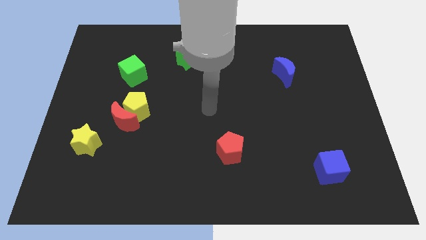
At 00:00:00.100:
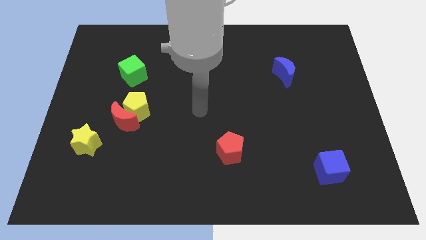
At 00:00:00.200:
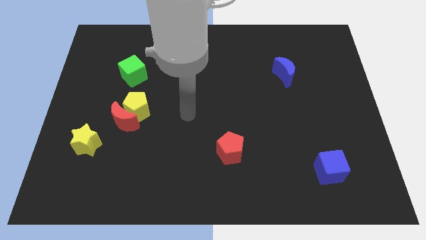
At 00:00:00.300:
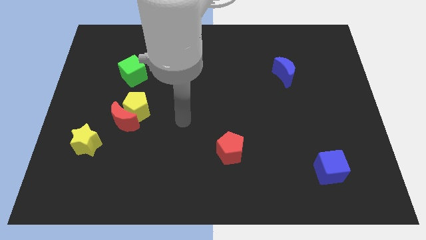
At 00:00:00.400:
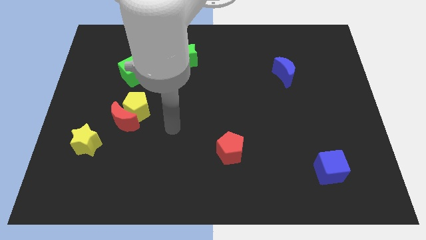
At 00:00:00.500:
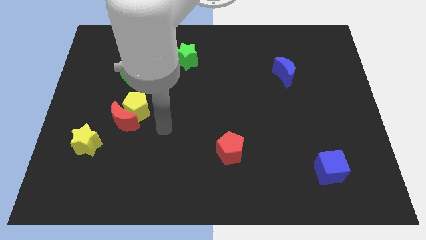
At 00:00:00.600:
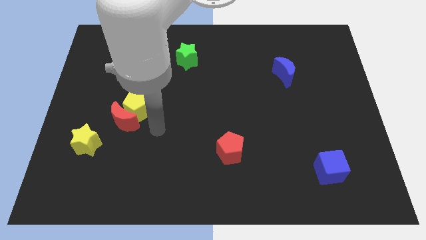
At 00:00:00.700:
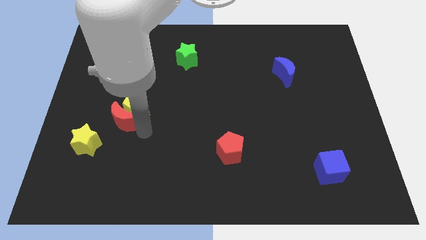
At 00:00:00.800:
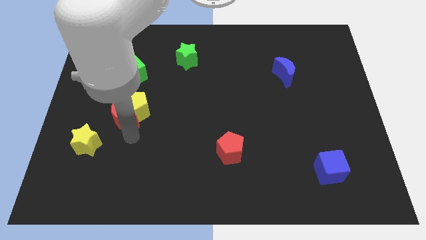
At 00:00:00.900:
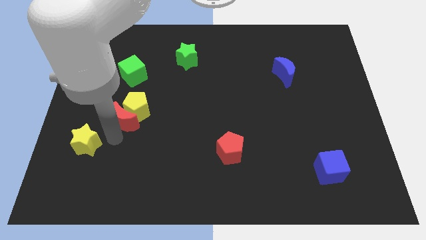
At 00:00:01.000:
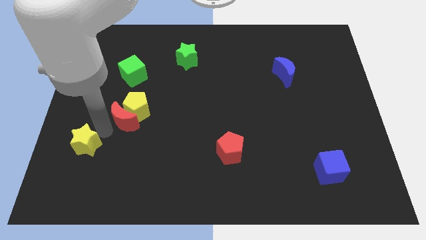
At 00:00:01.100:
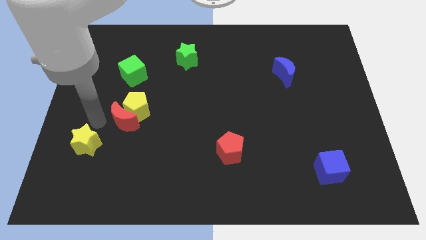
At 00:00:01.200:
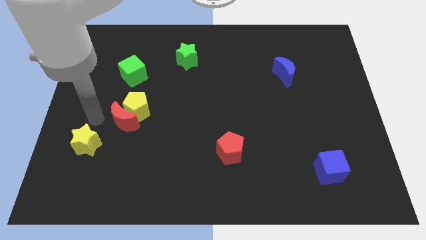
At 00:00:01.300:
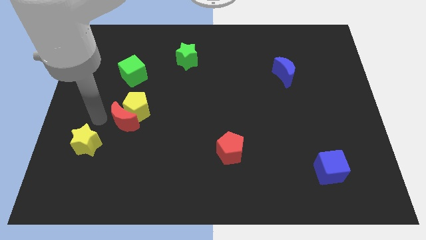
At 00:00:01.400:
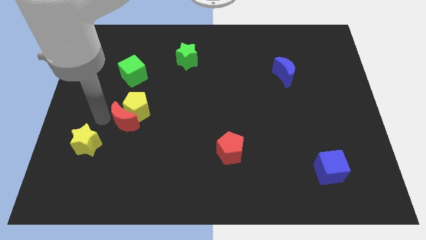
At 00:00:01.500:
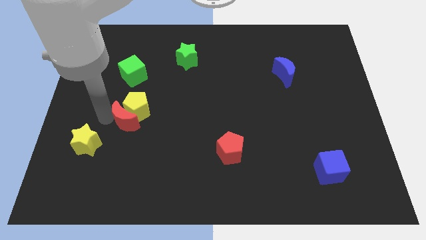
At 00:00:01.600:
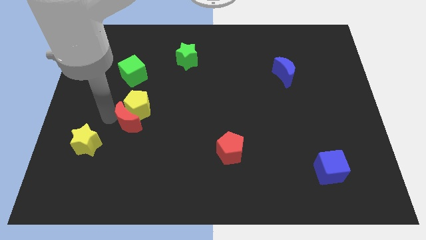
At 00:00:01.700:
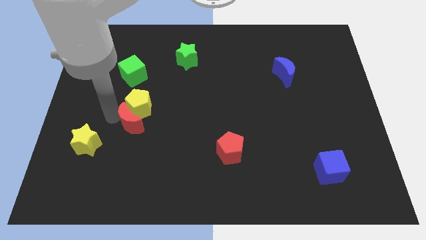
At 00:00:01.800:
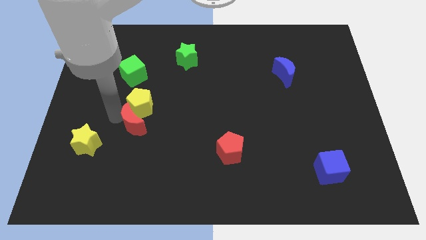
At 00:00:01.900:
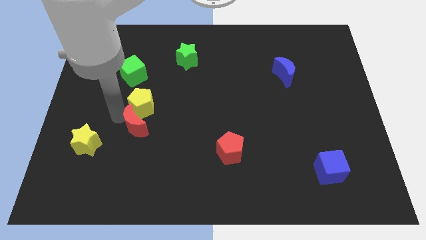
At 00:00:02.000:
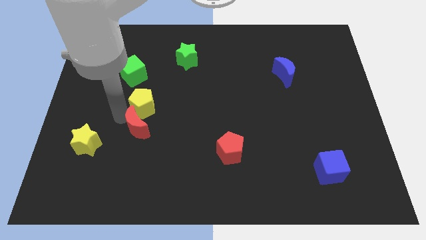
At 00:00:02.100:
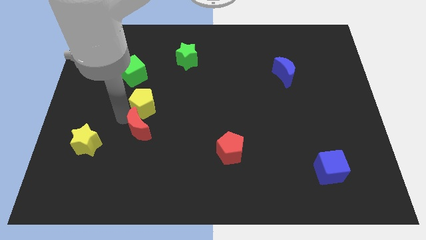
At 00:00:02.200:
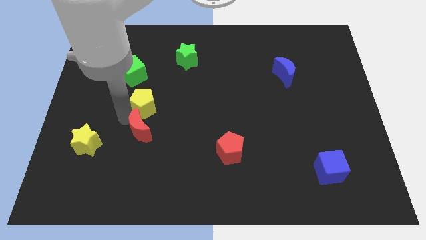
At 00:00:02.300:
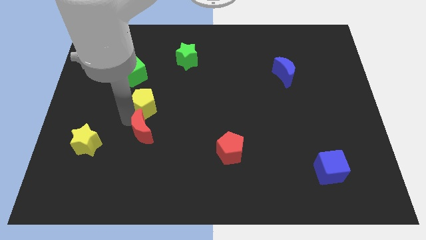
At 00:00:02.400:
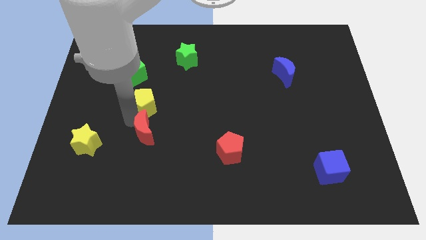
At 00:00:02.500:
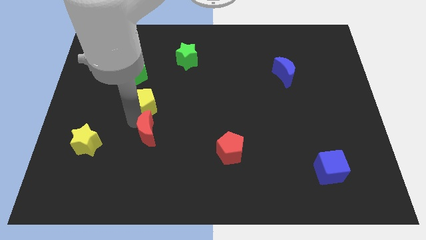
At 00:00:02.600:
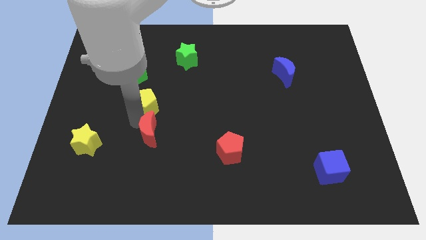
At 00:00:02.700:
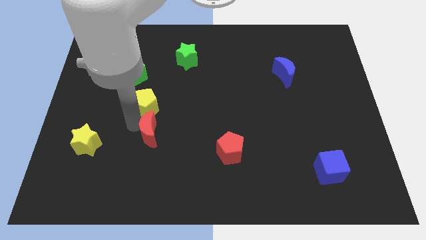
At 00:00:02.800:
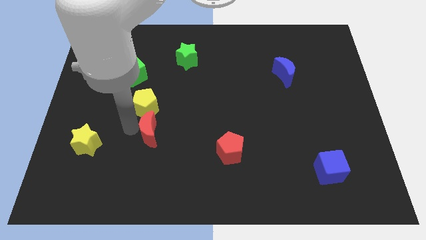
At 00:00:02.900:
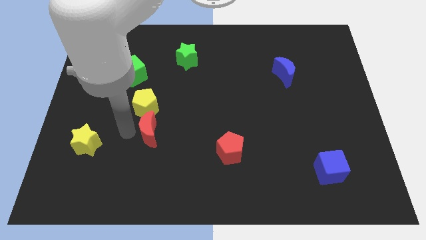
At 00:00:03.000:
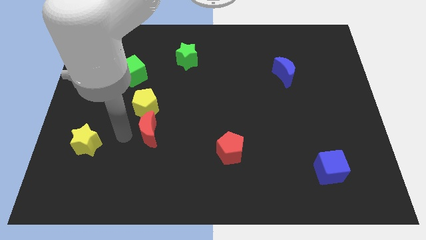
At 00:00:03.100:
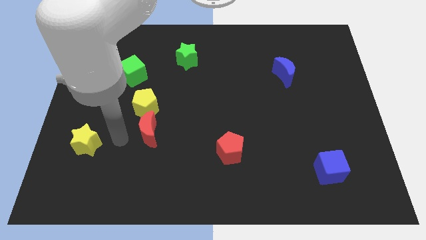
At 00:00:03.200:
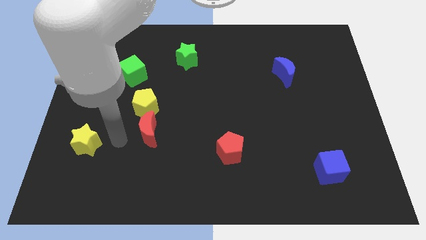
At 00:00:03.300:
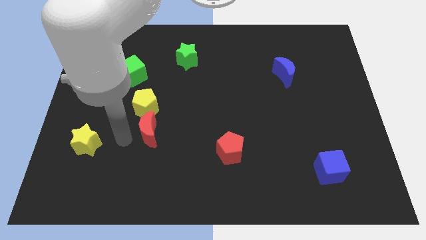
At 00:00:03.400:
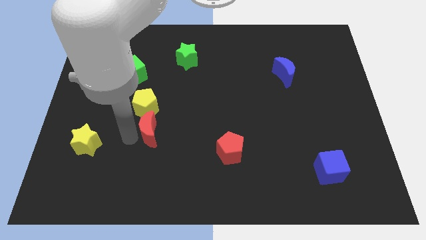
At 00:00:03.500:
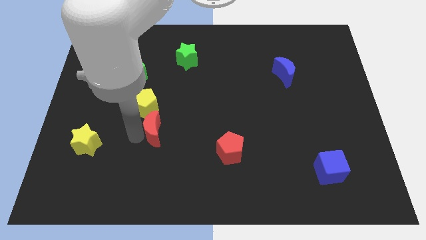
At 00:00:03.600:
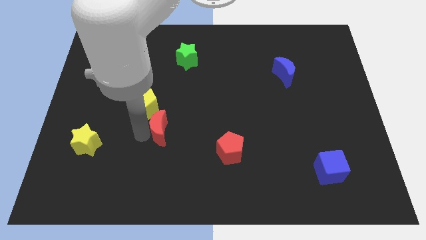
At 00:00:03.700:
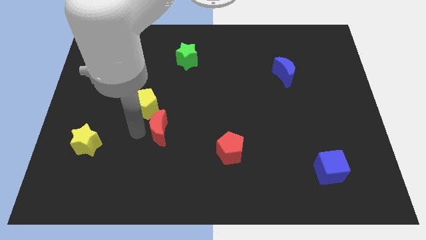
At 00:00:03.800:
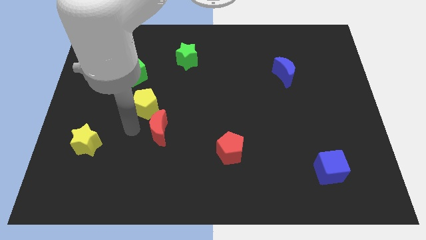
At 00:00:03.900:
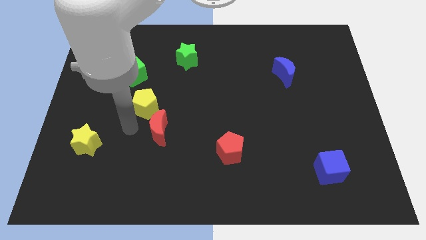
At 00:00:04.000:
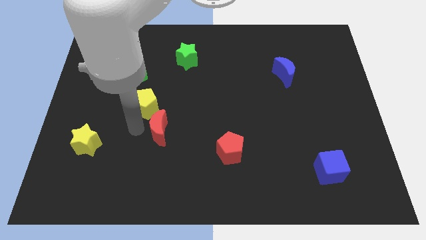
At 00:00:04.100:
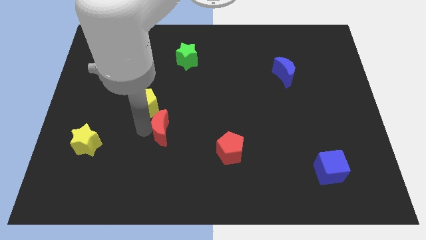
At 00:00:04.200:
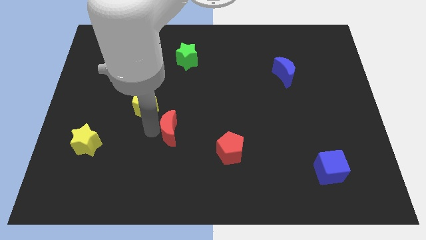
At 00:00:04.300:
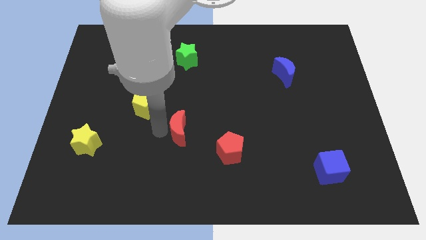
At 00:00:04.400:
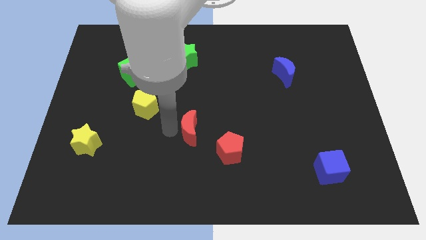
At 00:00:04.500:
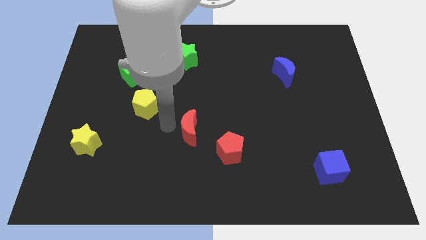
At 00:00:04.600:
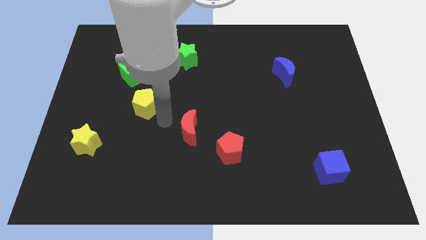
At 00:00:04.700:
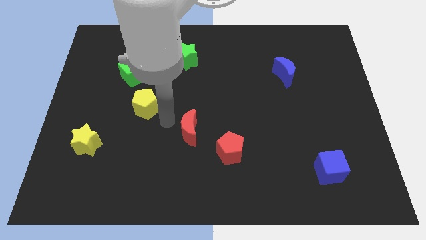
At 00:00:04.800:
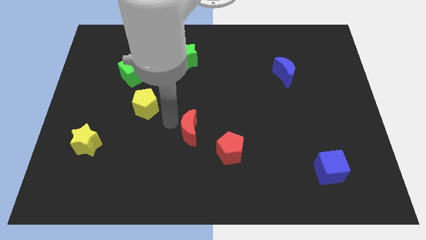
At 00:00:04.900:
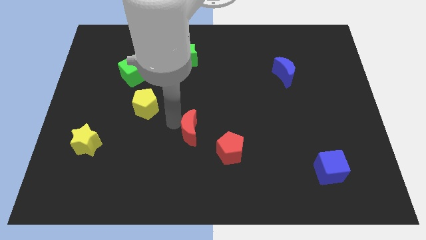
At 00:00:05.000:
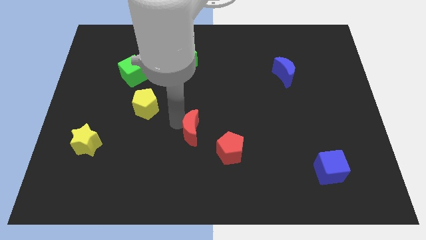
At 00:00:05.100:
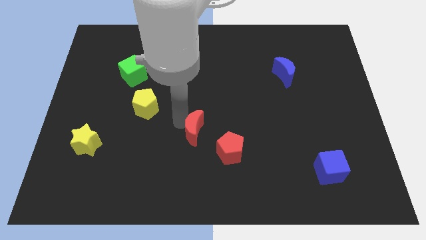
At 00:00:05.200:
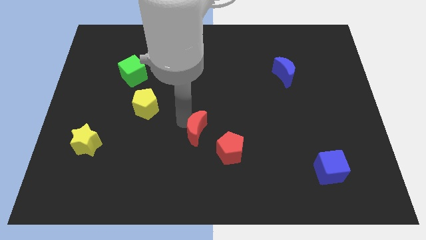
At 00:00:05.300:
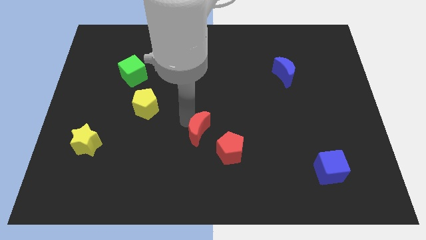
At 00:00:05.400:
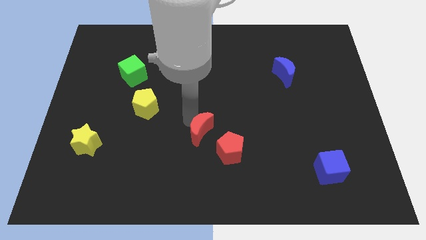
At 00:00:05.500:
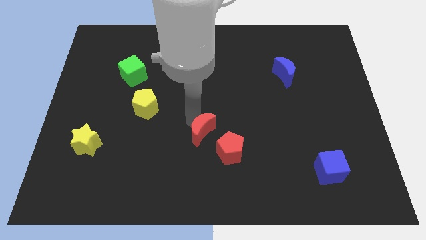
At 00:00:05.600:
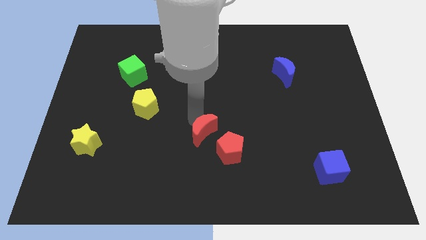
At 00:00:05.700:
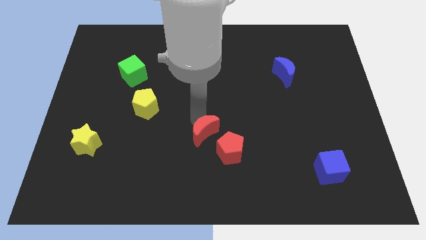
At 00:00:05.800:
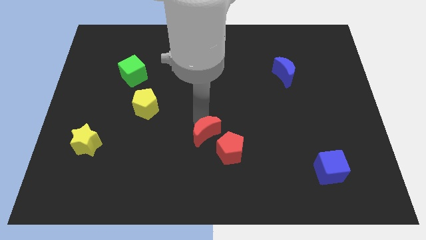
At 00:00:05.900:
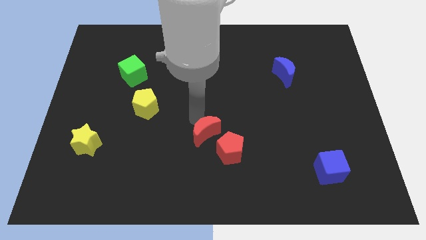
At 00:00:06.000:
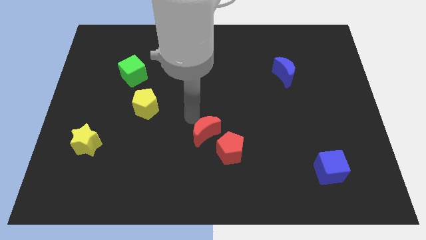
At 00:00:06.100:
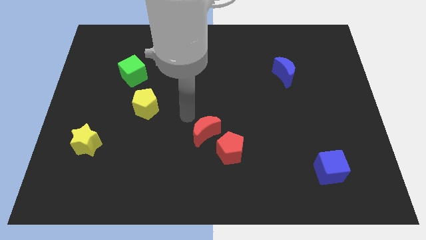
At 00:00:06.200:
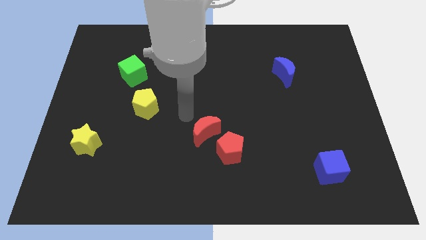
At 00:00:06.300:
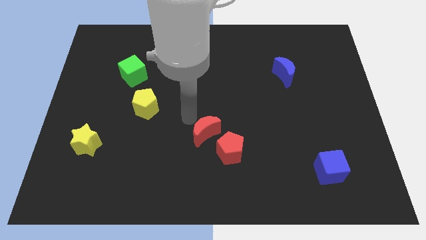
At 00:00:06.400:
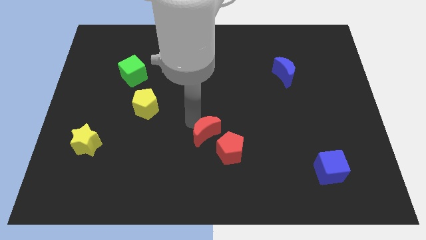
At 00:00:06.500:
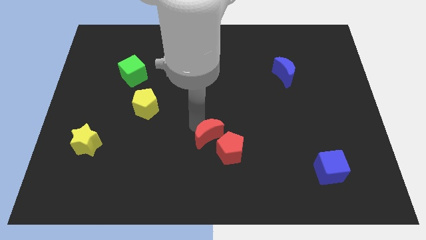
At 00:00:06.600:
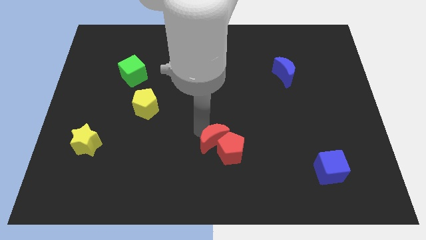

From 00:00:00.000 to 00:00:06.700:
slide the red moon to the red pentagon

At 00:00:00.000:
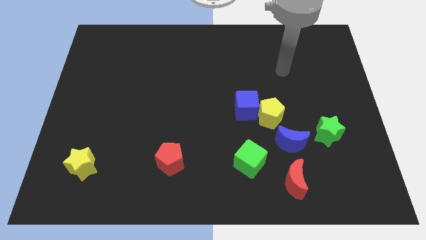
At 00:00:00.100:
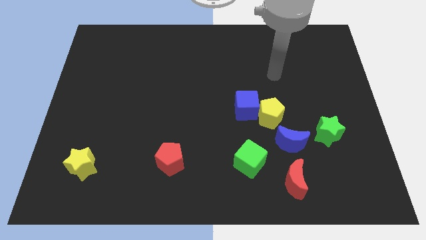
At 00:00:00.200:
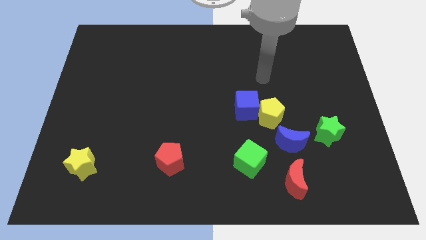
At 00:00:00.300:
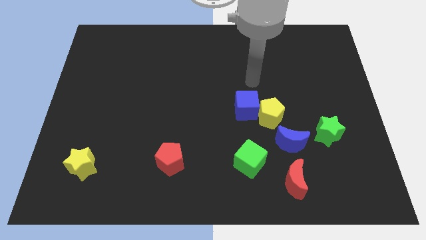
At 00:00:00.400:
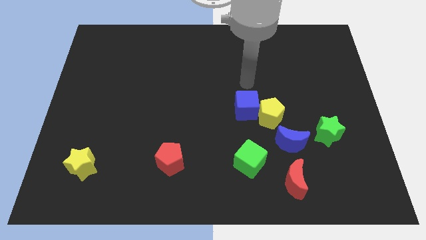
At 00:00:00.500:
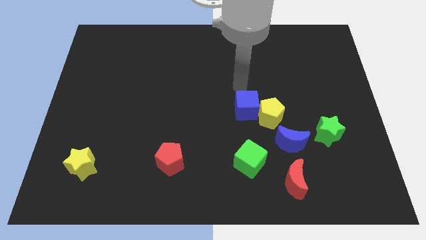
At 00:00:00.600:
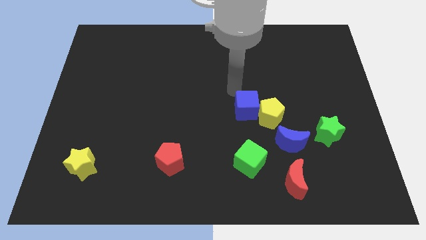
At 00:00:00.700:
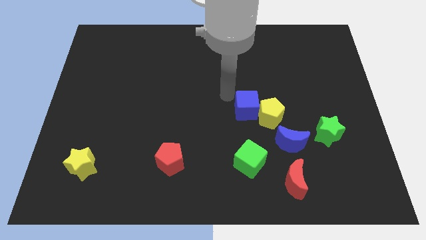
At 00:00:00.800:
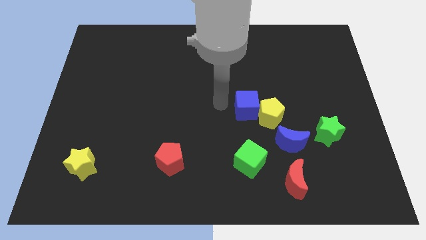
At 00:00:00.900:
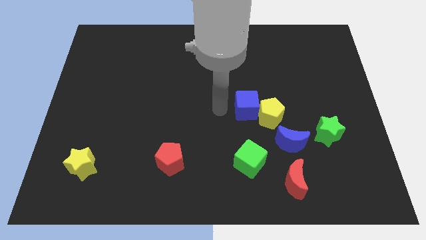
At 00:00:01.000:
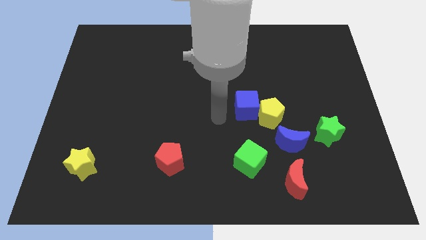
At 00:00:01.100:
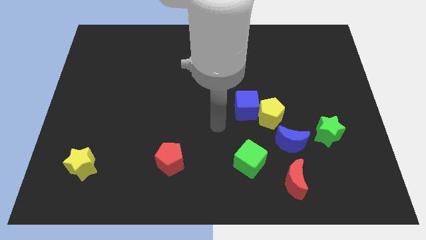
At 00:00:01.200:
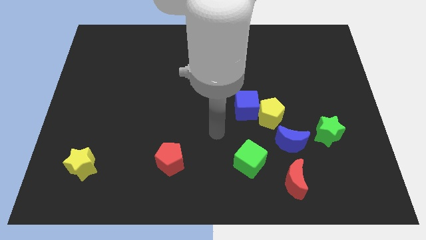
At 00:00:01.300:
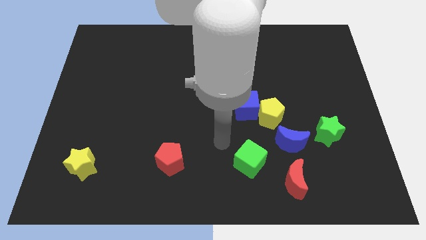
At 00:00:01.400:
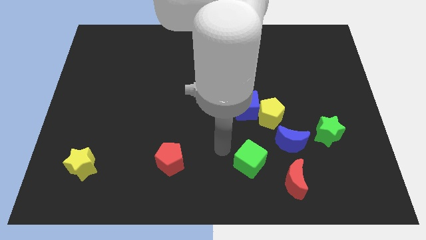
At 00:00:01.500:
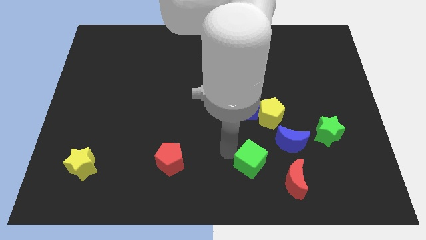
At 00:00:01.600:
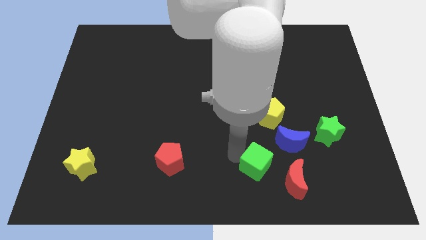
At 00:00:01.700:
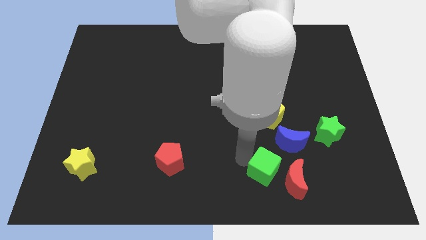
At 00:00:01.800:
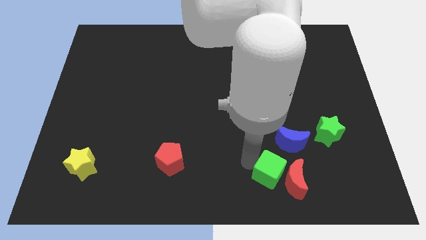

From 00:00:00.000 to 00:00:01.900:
push the green cube close to the red moon
